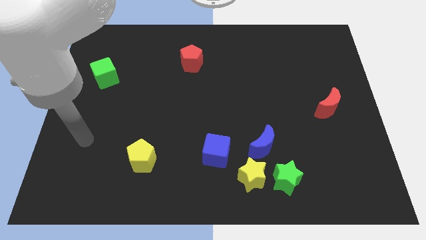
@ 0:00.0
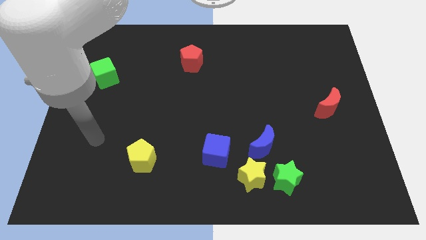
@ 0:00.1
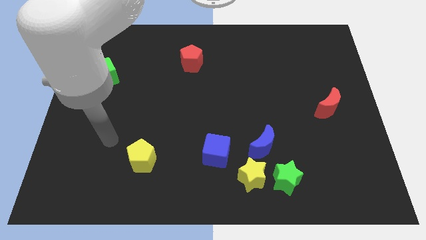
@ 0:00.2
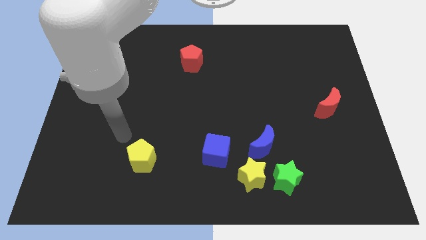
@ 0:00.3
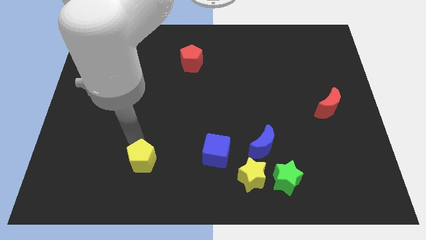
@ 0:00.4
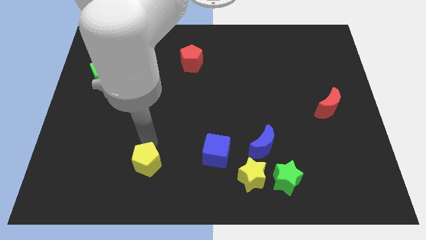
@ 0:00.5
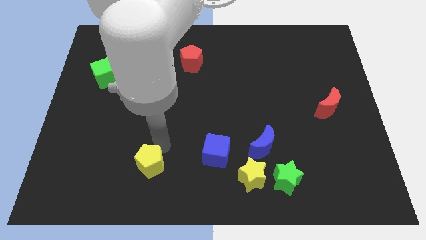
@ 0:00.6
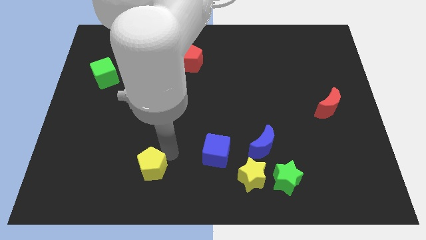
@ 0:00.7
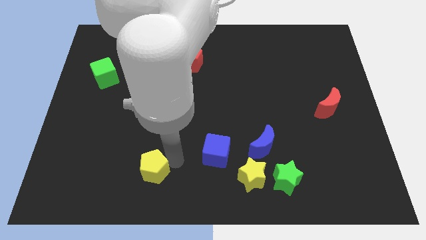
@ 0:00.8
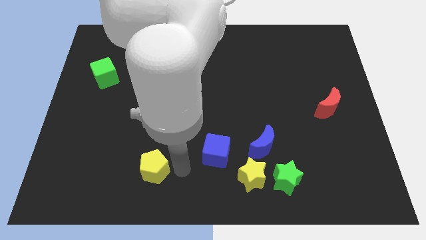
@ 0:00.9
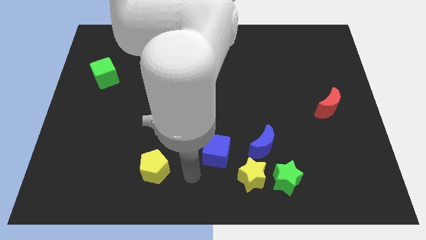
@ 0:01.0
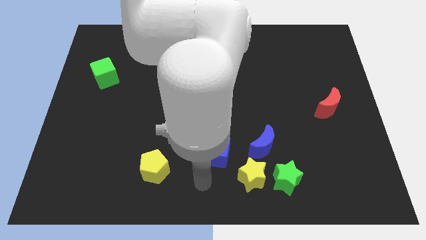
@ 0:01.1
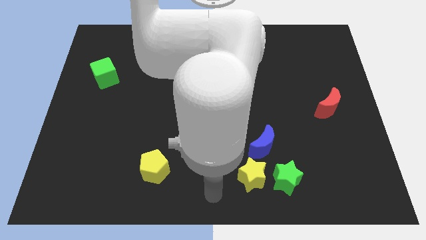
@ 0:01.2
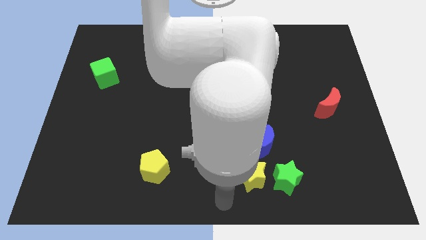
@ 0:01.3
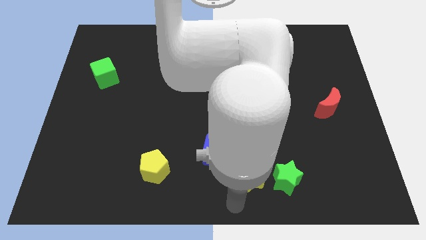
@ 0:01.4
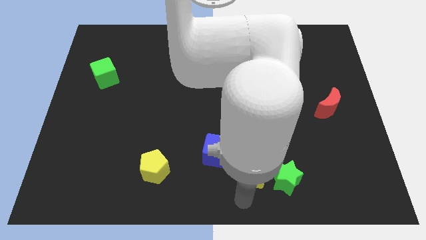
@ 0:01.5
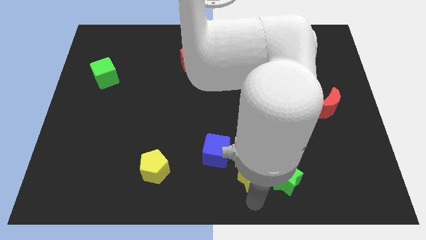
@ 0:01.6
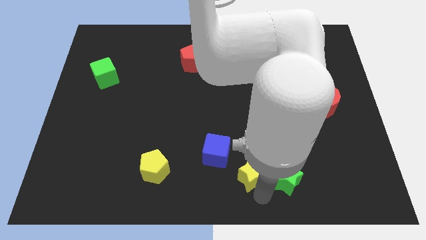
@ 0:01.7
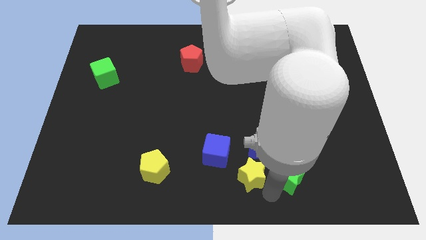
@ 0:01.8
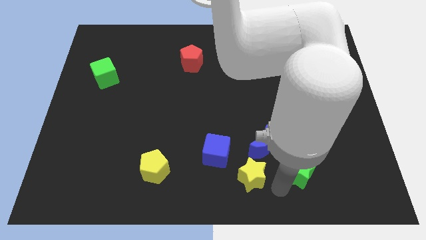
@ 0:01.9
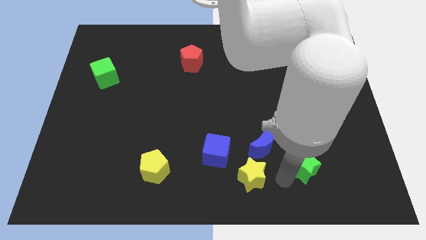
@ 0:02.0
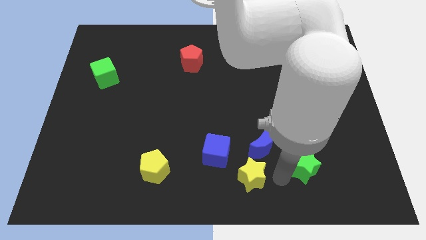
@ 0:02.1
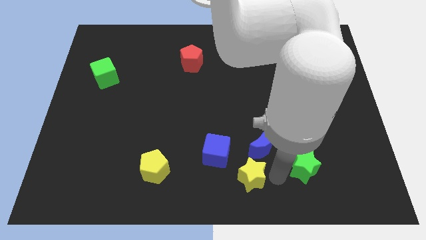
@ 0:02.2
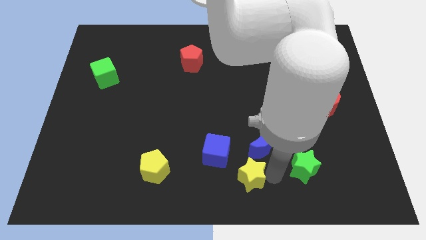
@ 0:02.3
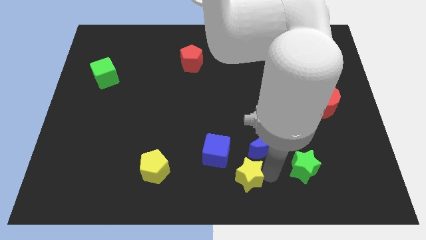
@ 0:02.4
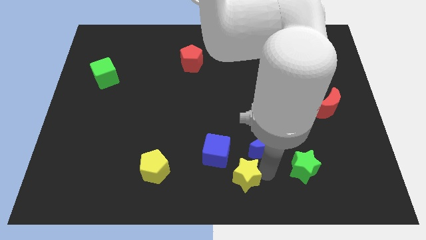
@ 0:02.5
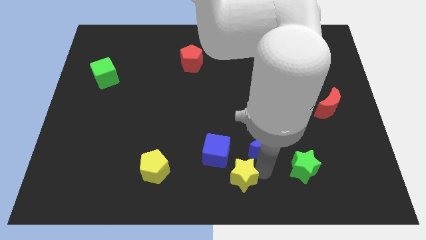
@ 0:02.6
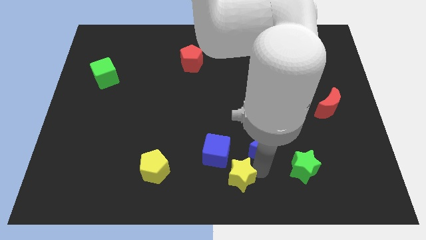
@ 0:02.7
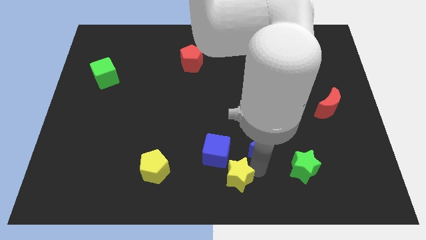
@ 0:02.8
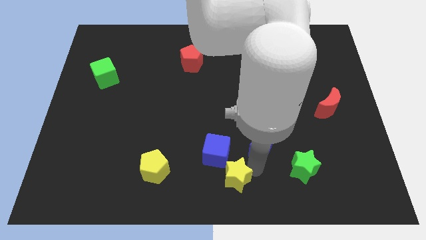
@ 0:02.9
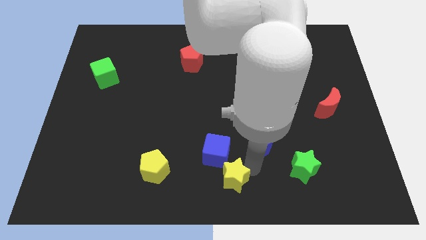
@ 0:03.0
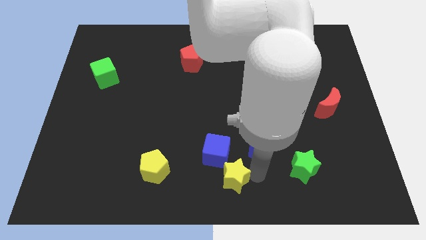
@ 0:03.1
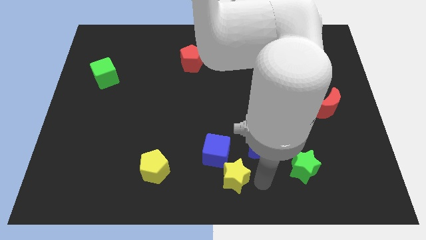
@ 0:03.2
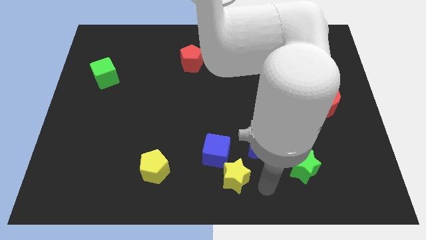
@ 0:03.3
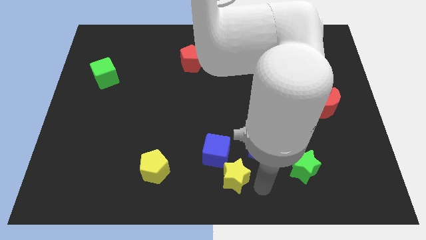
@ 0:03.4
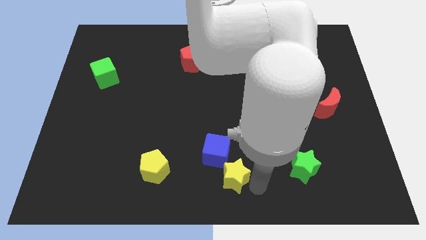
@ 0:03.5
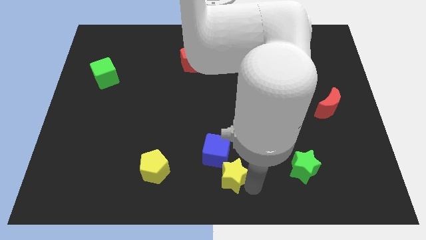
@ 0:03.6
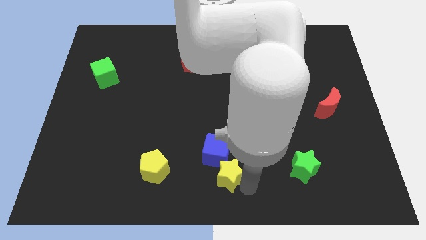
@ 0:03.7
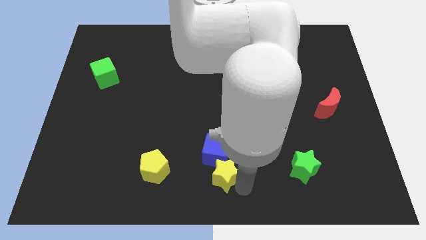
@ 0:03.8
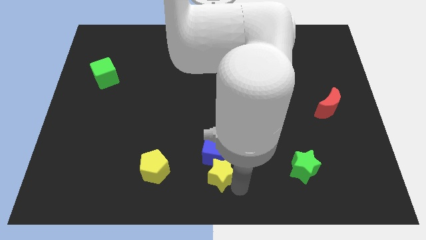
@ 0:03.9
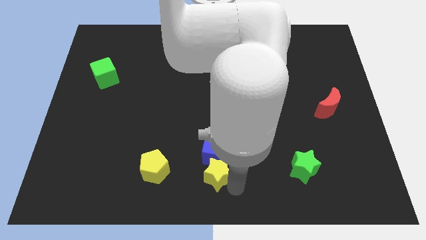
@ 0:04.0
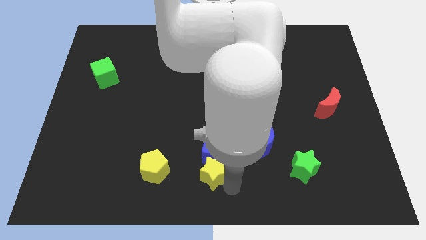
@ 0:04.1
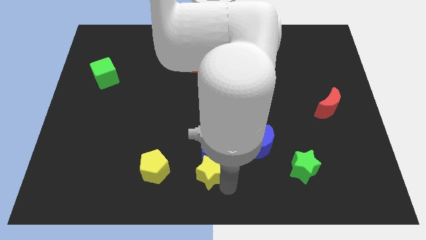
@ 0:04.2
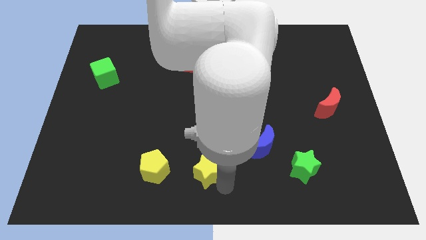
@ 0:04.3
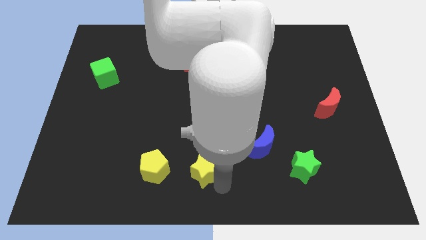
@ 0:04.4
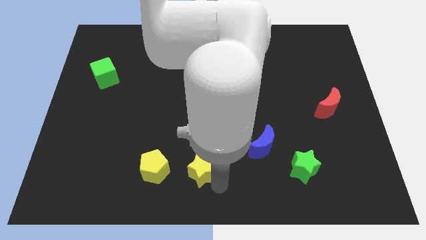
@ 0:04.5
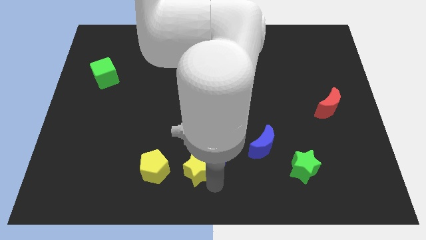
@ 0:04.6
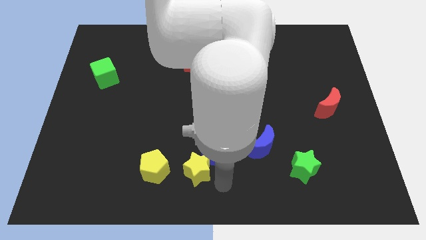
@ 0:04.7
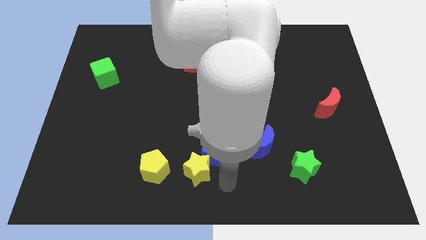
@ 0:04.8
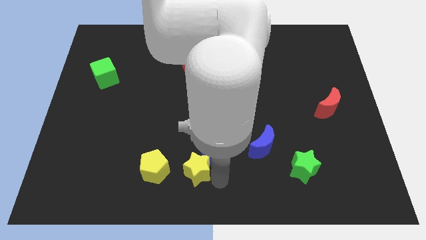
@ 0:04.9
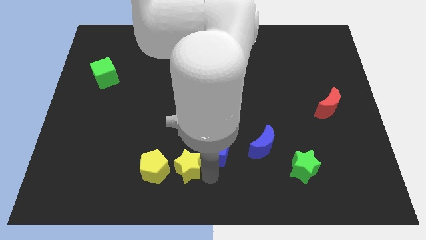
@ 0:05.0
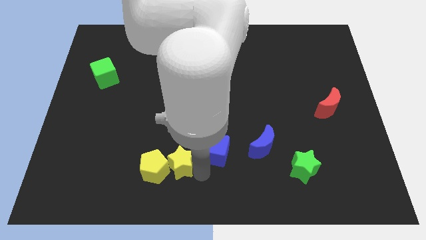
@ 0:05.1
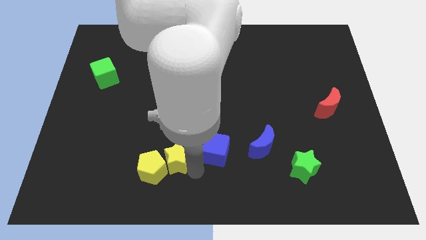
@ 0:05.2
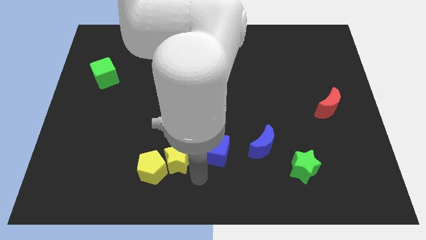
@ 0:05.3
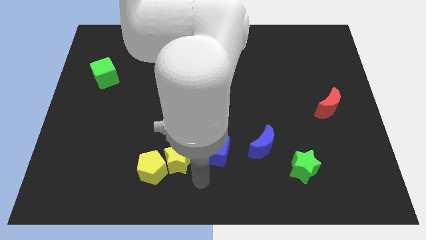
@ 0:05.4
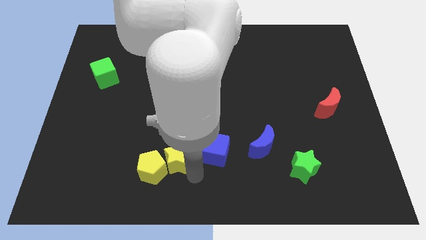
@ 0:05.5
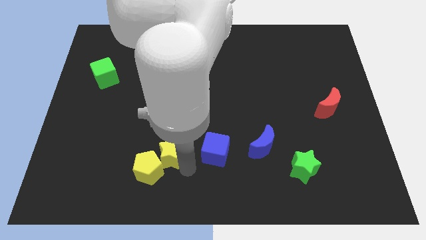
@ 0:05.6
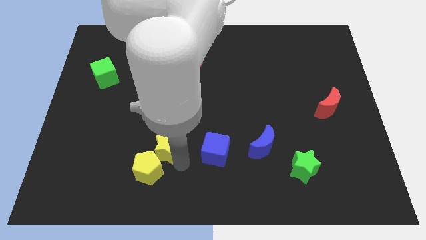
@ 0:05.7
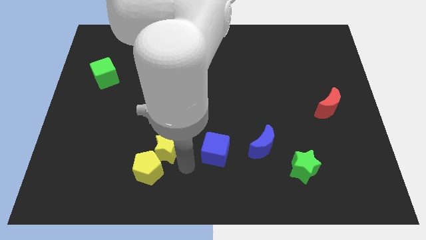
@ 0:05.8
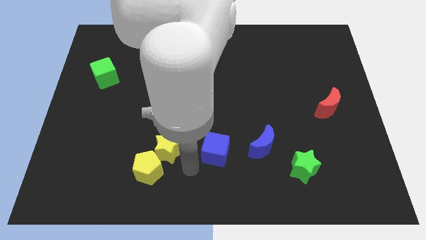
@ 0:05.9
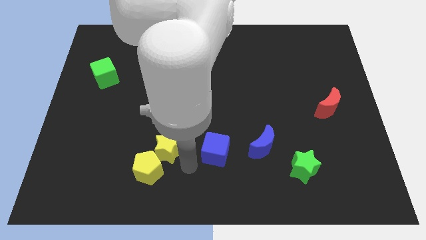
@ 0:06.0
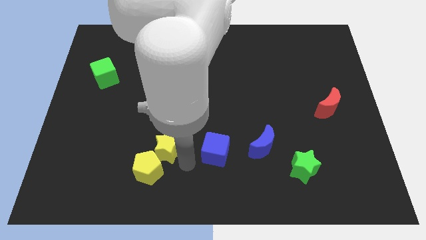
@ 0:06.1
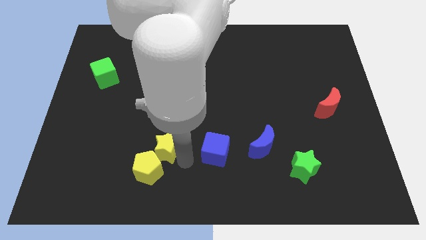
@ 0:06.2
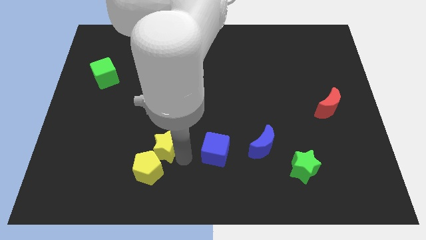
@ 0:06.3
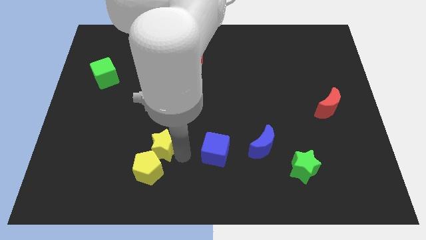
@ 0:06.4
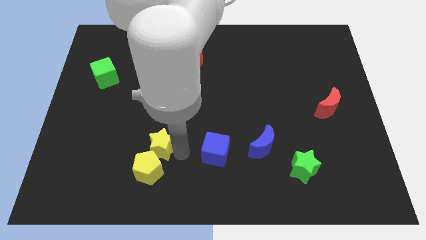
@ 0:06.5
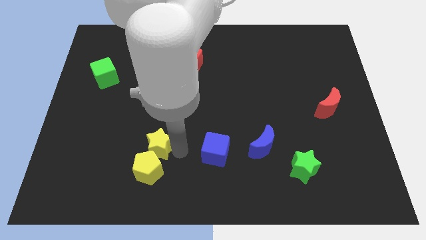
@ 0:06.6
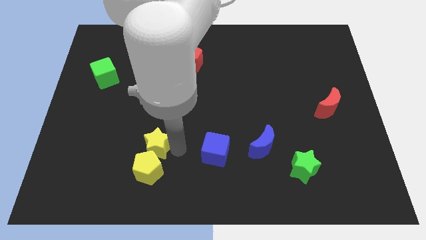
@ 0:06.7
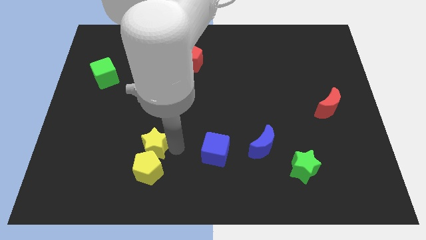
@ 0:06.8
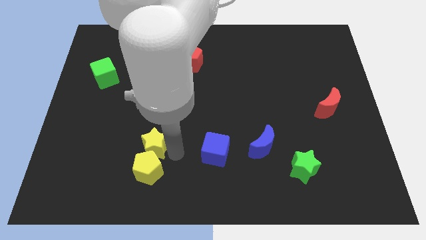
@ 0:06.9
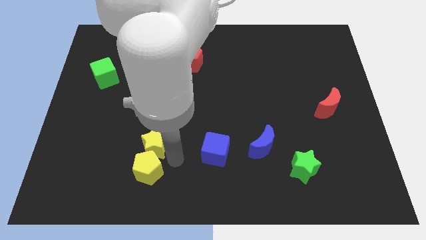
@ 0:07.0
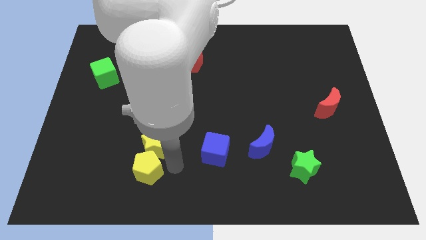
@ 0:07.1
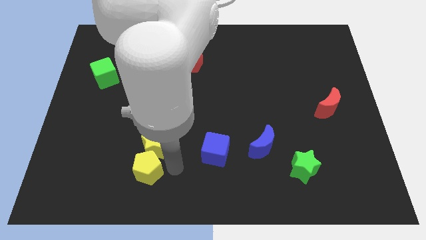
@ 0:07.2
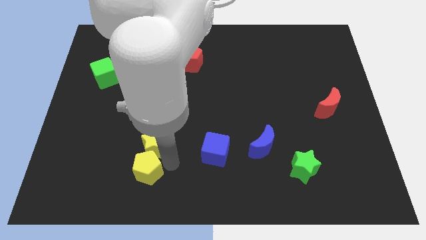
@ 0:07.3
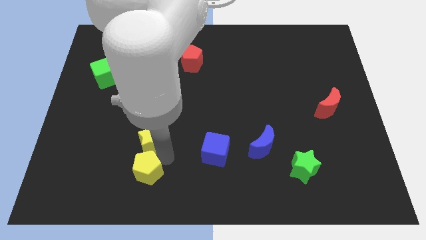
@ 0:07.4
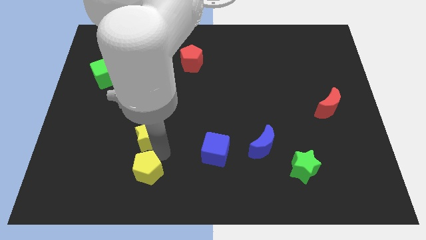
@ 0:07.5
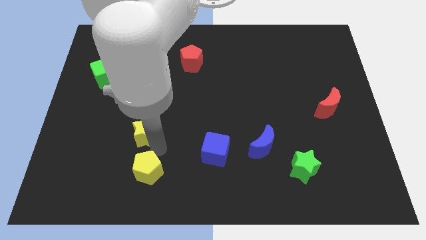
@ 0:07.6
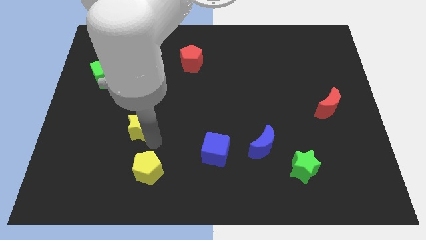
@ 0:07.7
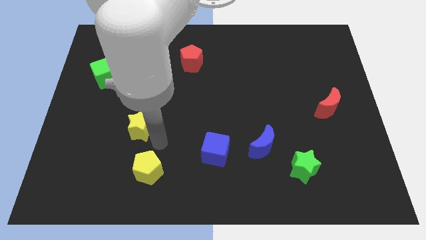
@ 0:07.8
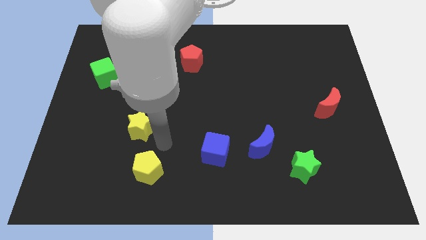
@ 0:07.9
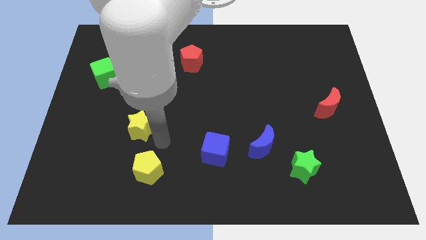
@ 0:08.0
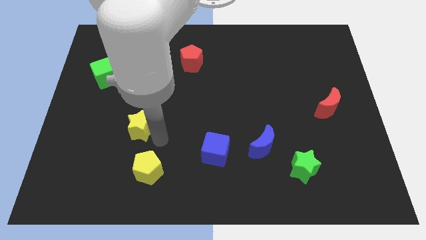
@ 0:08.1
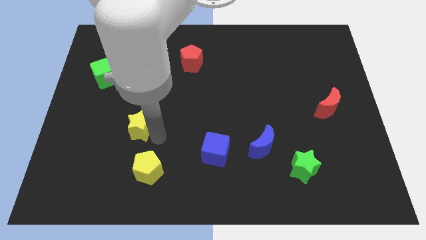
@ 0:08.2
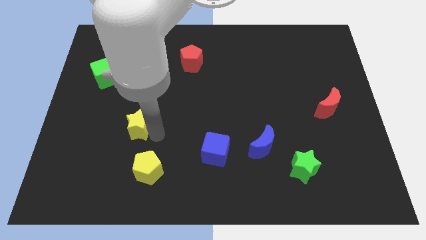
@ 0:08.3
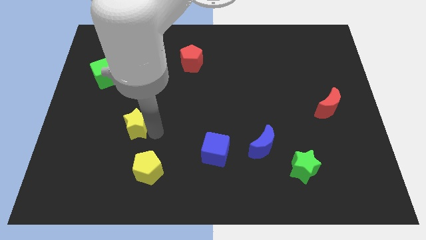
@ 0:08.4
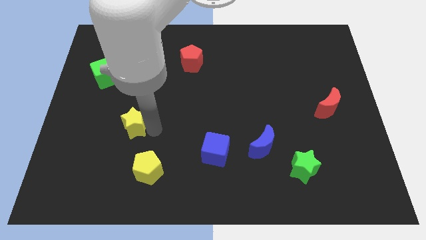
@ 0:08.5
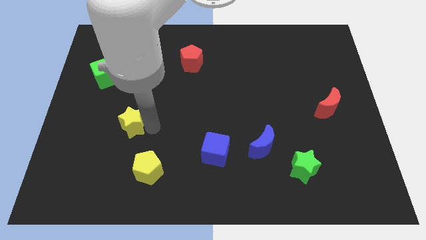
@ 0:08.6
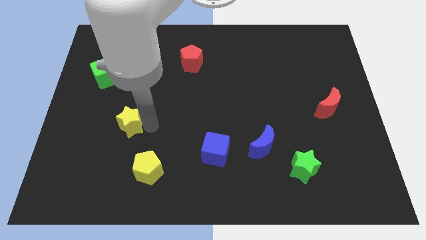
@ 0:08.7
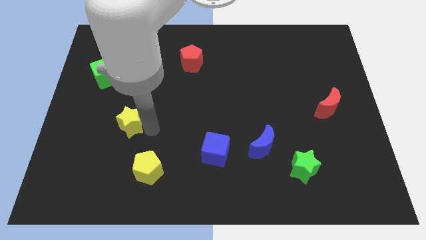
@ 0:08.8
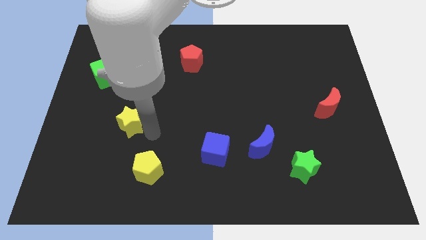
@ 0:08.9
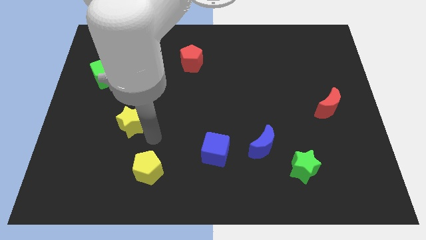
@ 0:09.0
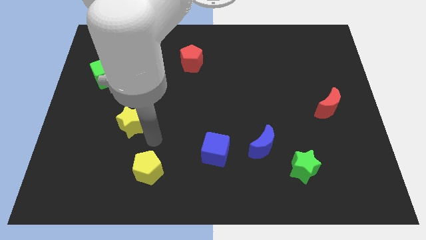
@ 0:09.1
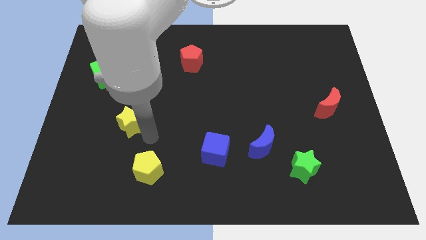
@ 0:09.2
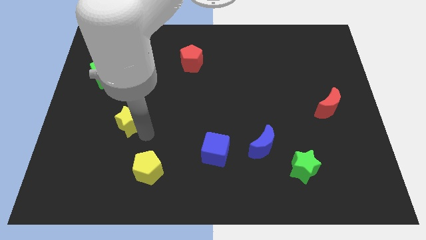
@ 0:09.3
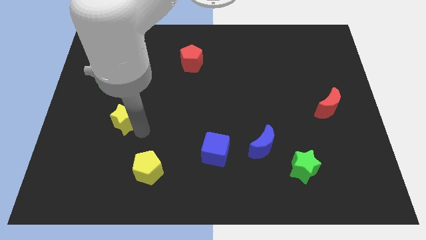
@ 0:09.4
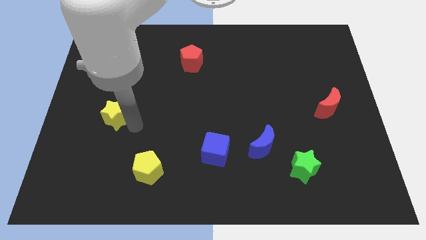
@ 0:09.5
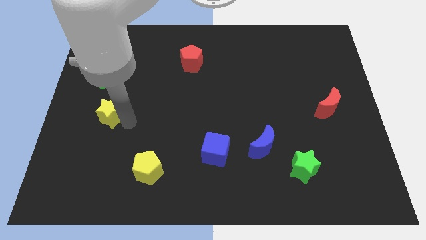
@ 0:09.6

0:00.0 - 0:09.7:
put the yellow star below the green cube
